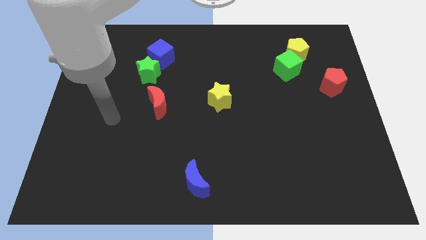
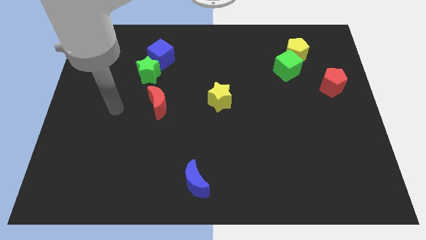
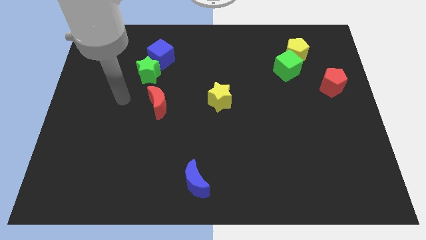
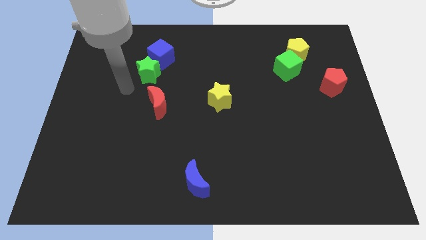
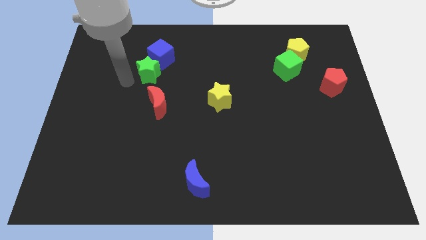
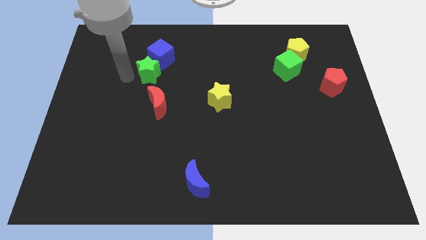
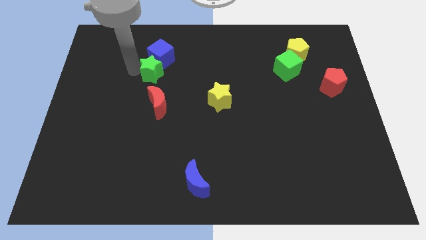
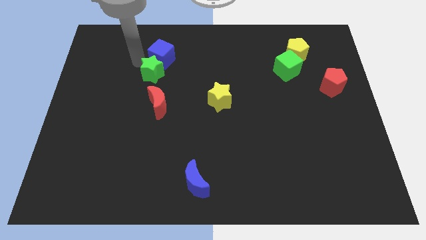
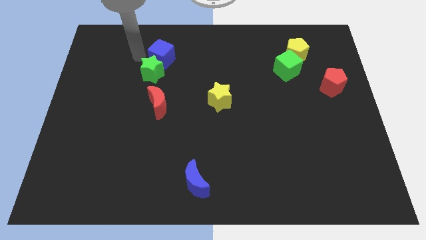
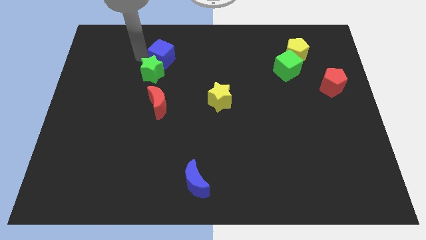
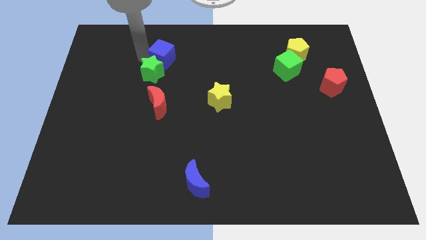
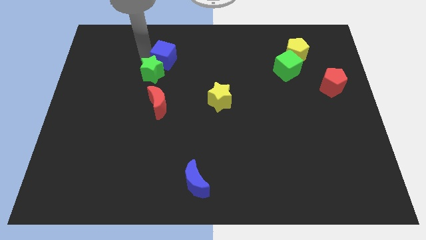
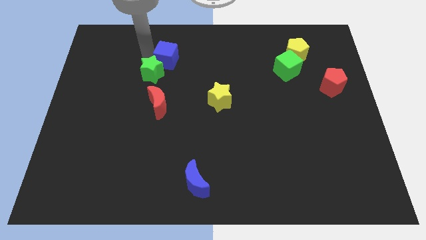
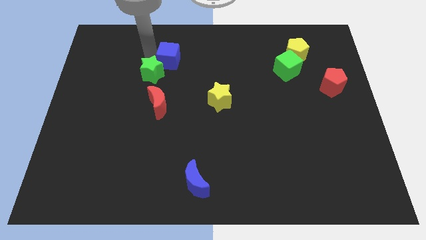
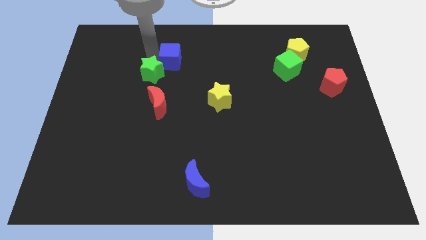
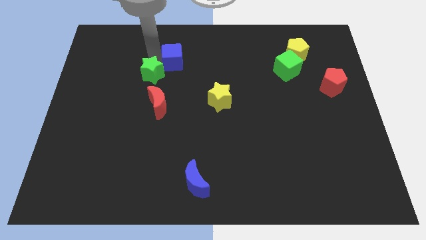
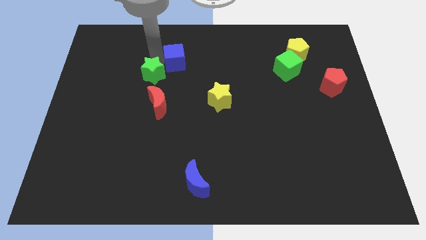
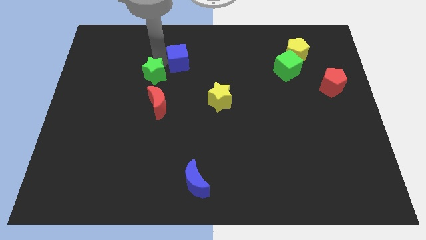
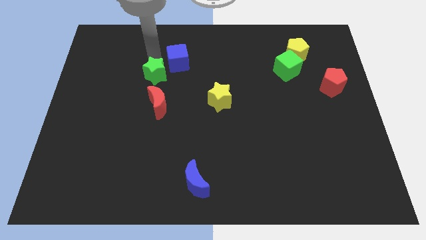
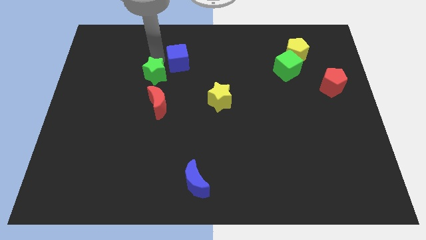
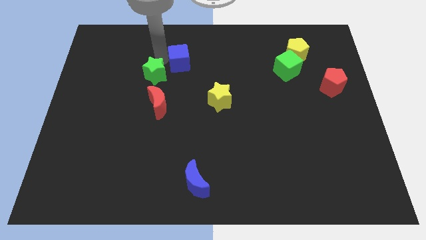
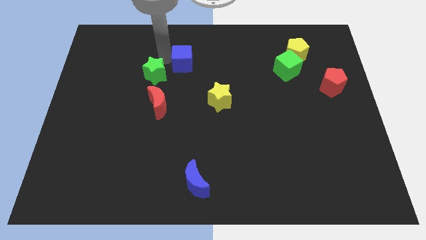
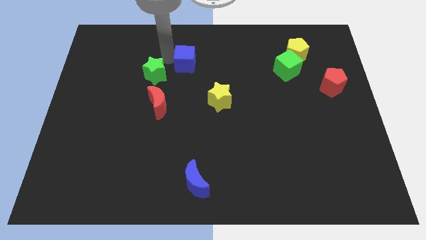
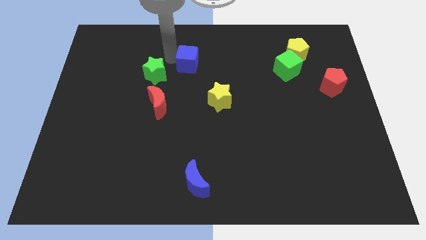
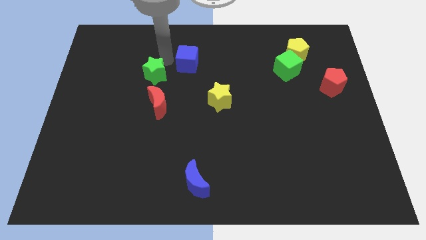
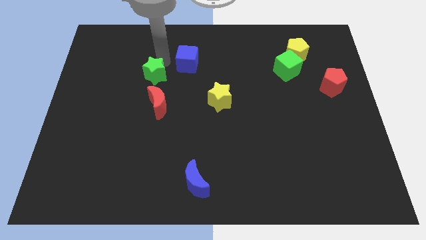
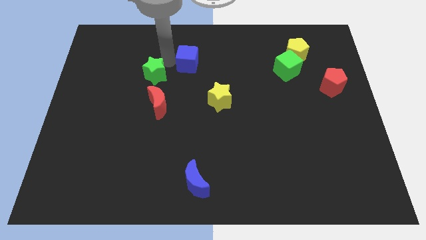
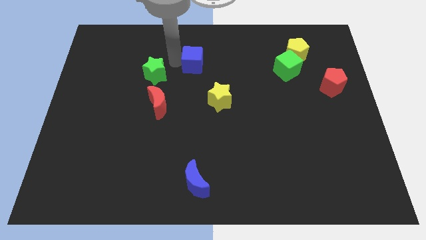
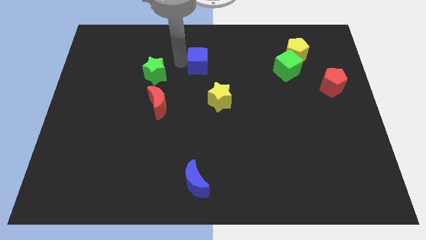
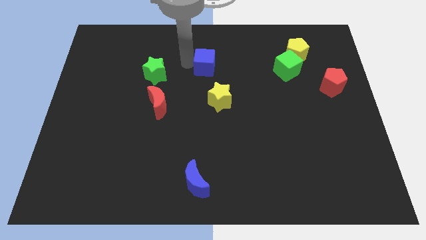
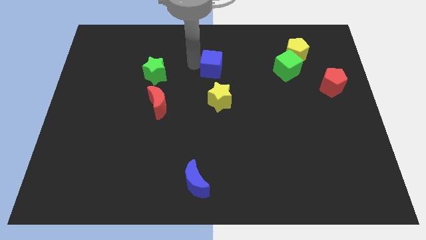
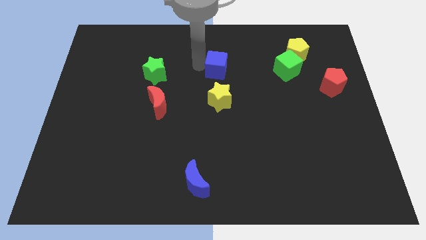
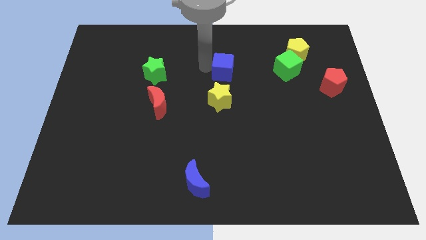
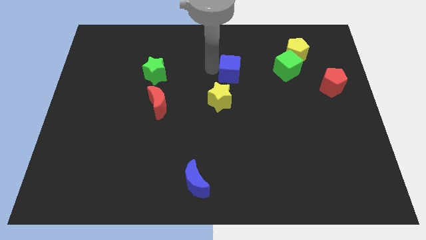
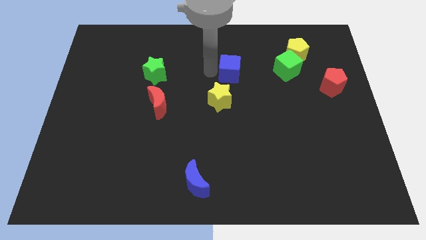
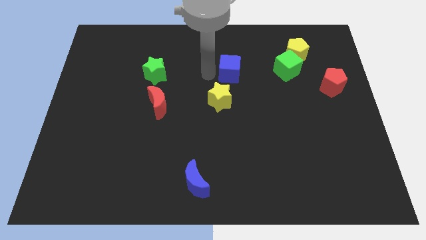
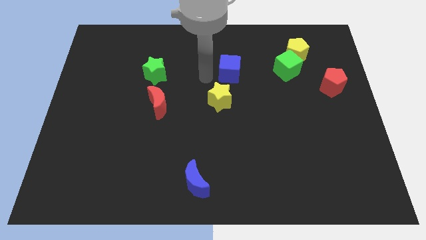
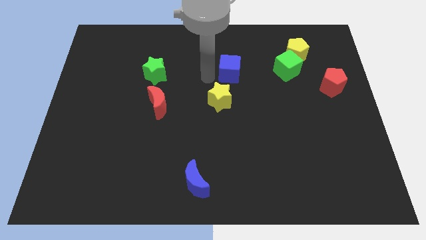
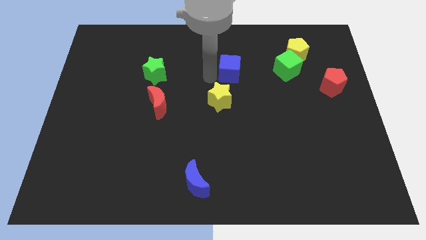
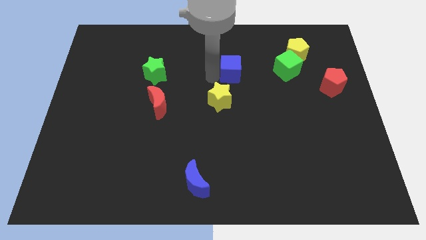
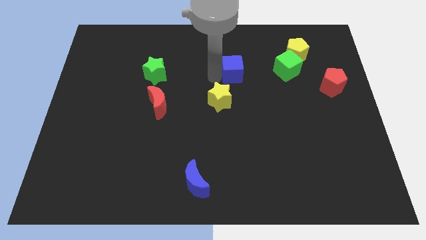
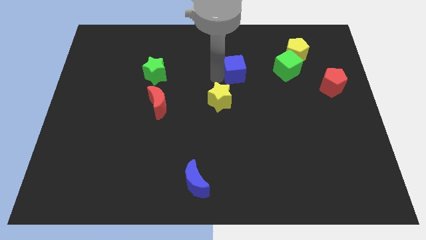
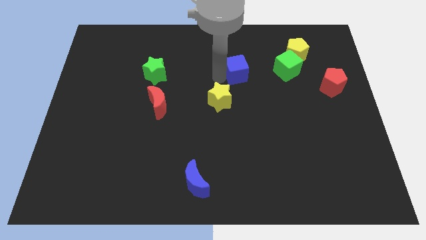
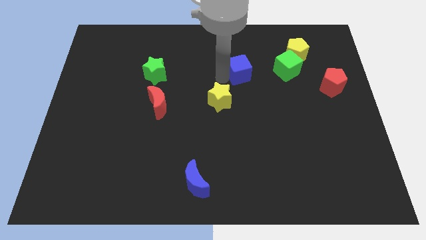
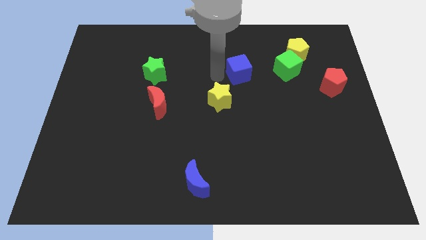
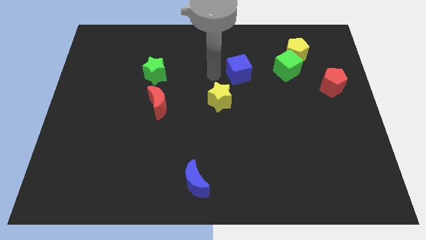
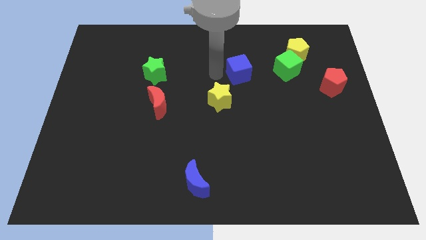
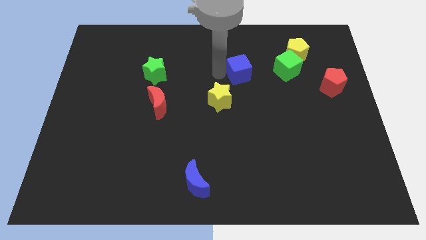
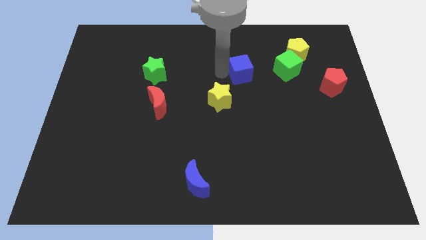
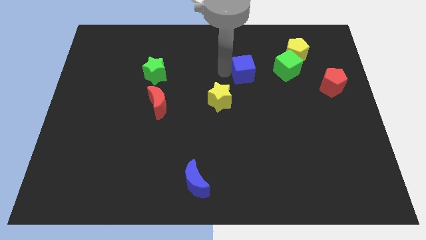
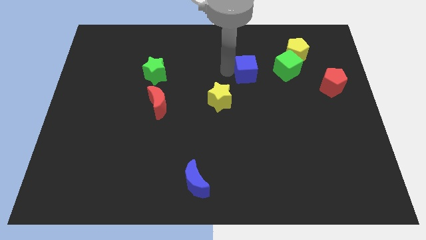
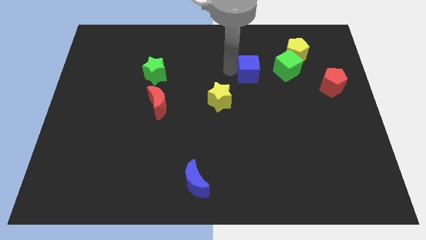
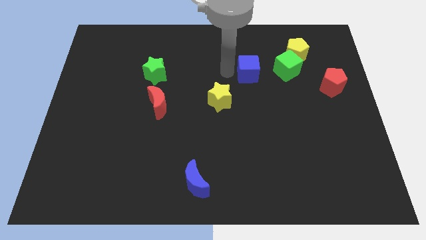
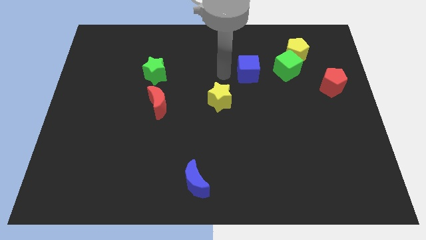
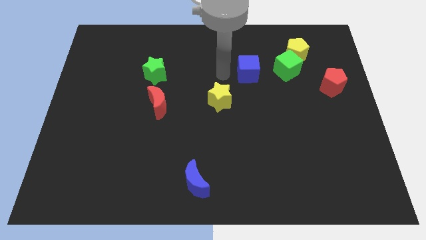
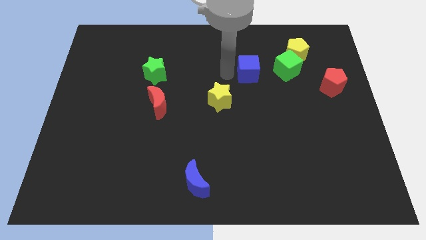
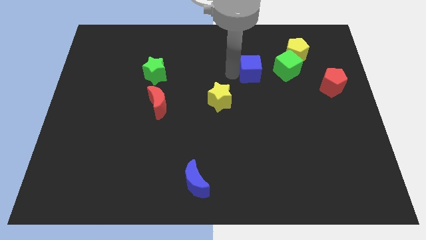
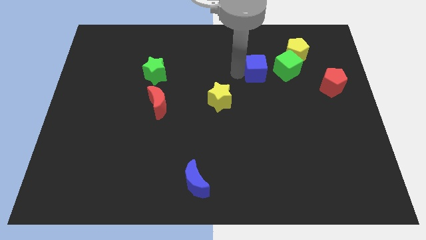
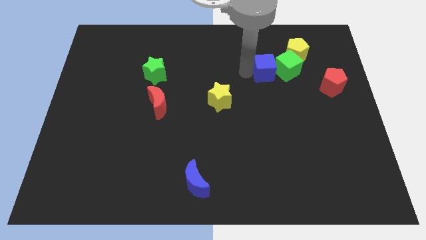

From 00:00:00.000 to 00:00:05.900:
push the blue cube next to the green cube
